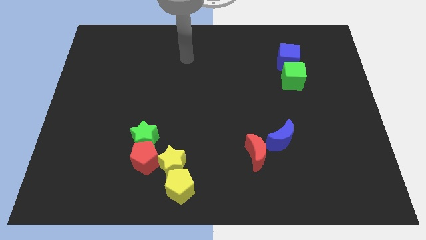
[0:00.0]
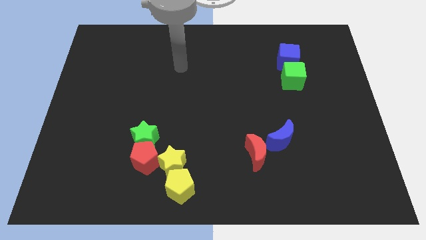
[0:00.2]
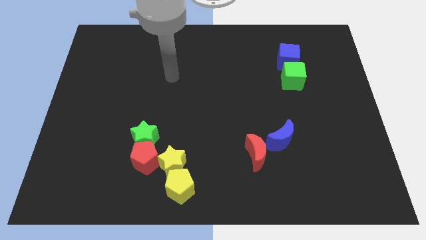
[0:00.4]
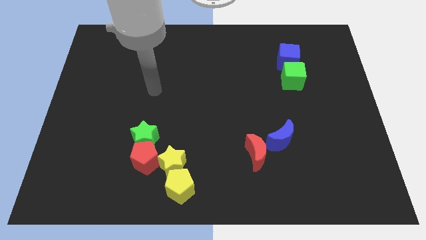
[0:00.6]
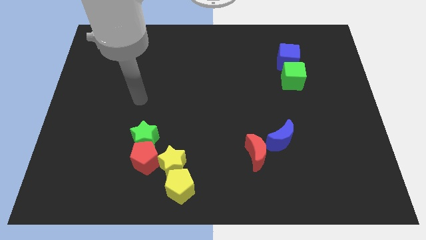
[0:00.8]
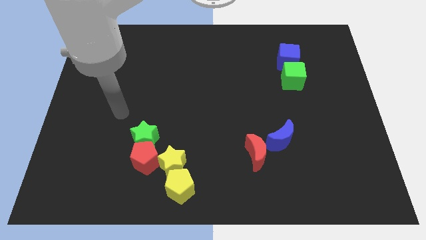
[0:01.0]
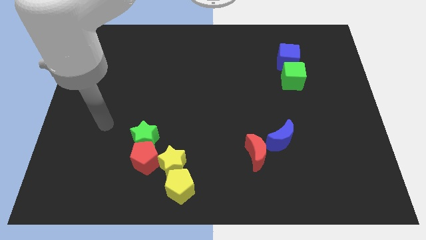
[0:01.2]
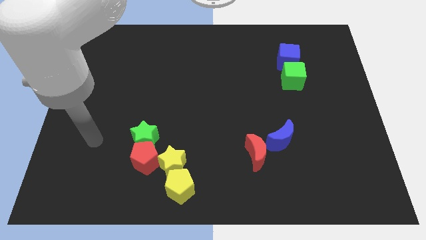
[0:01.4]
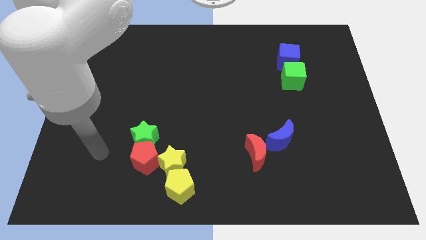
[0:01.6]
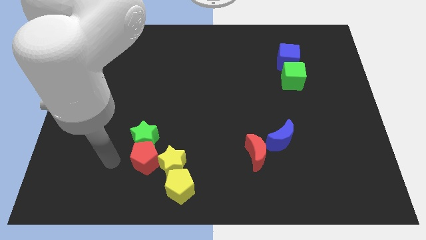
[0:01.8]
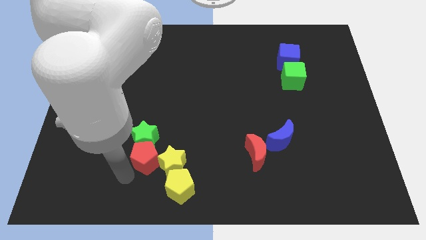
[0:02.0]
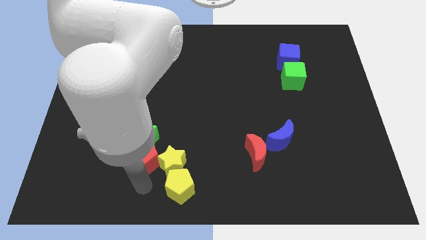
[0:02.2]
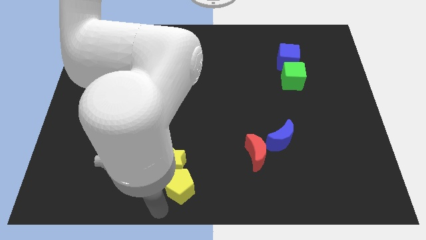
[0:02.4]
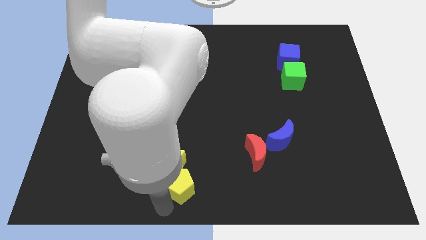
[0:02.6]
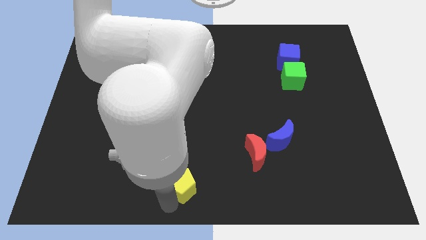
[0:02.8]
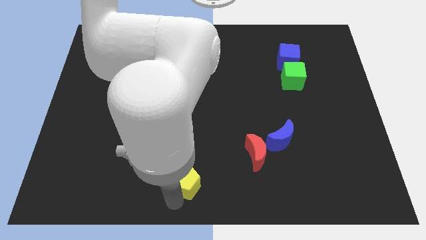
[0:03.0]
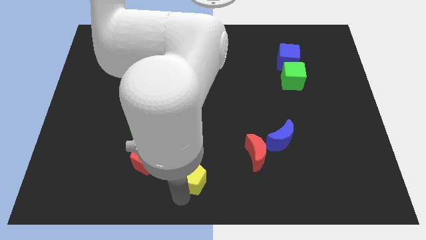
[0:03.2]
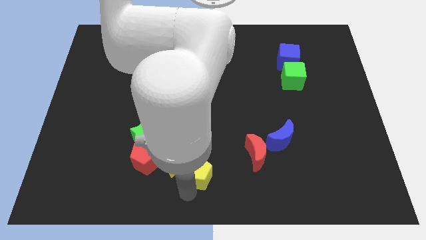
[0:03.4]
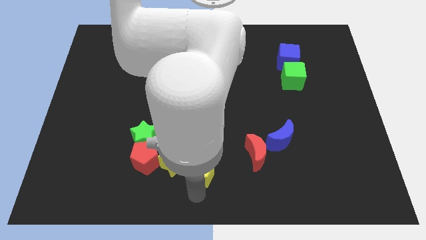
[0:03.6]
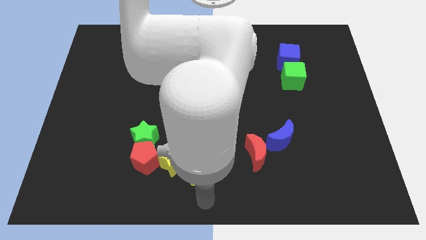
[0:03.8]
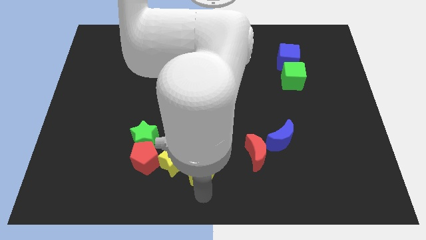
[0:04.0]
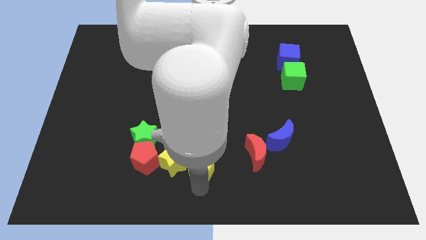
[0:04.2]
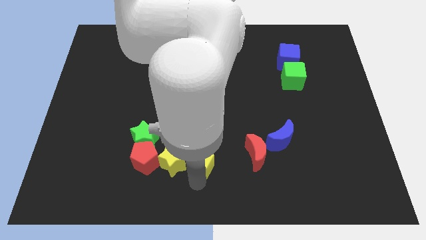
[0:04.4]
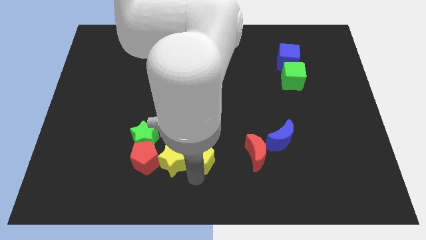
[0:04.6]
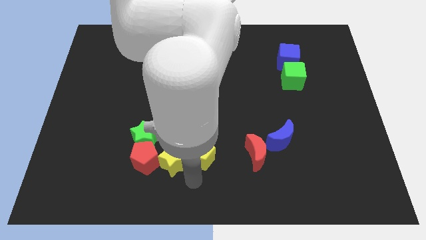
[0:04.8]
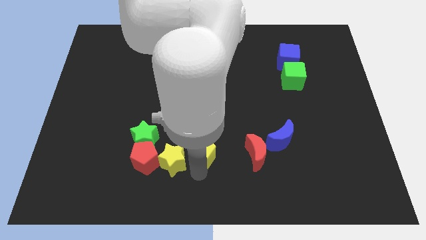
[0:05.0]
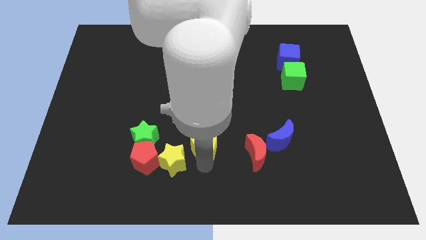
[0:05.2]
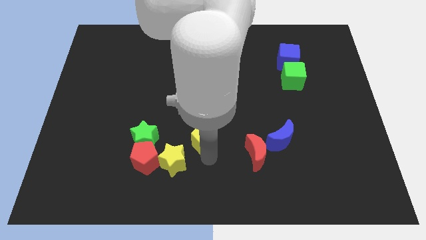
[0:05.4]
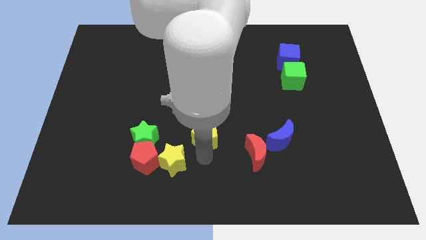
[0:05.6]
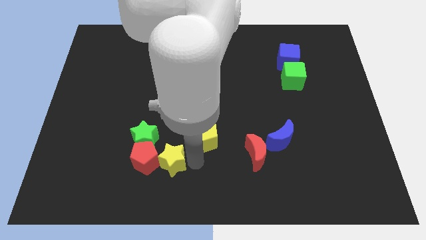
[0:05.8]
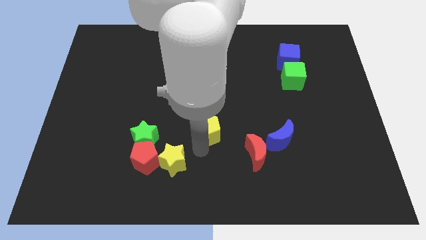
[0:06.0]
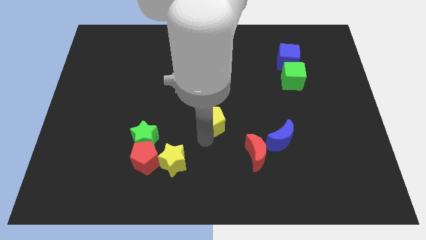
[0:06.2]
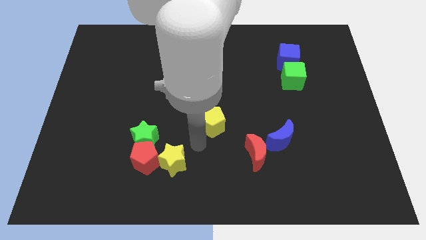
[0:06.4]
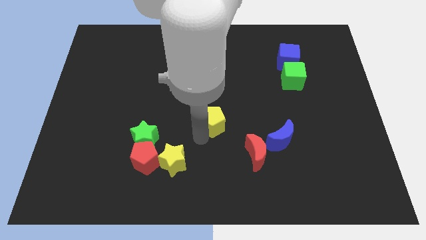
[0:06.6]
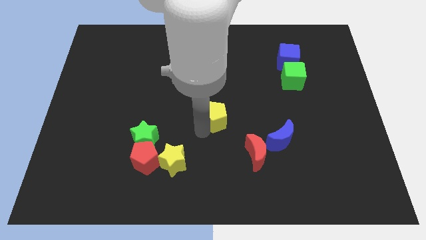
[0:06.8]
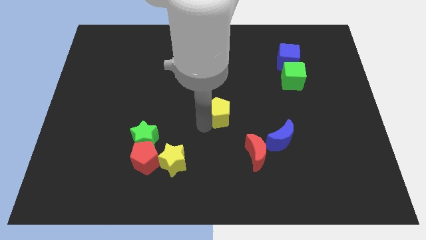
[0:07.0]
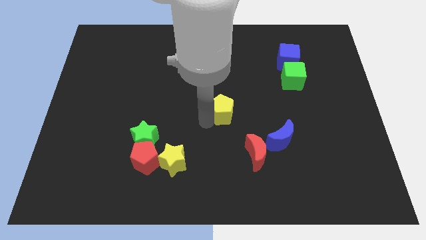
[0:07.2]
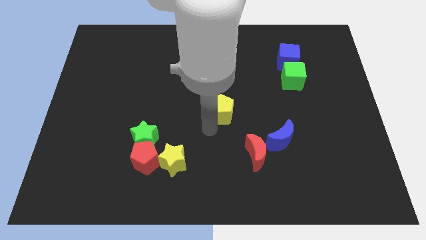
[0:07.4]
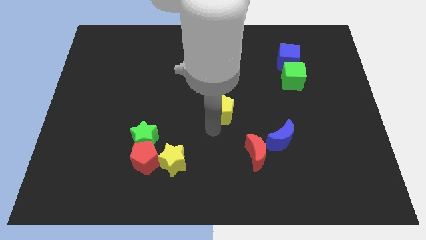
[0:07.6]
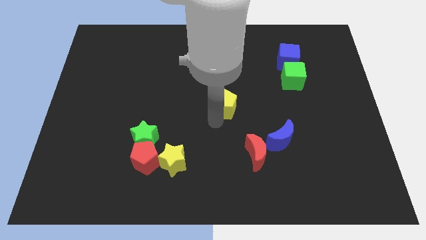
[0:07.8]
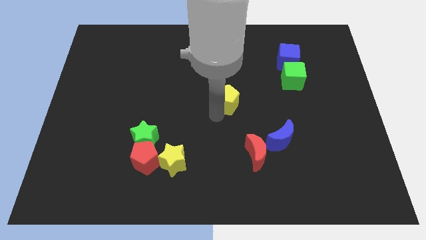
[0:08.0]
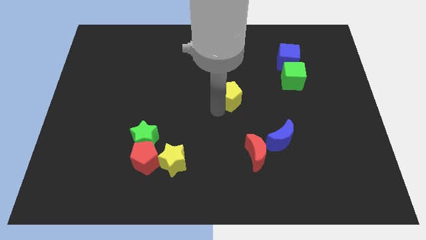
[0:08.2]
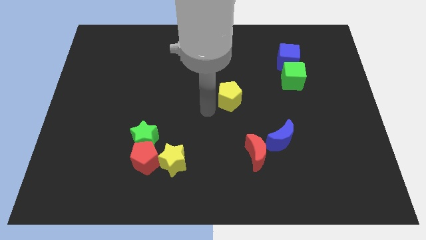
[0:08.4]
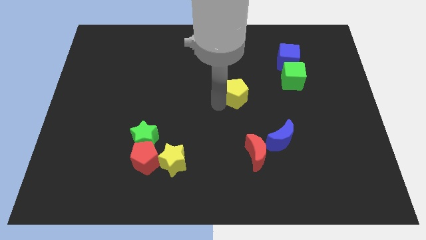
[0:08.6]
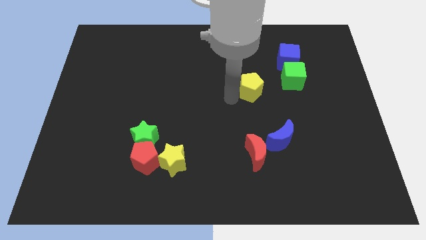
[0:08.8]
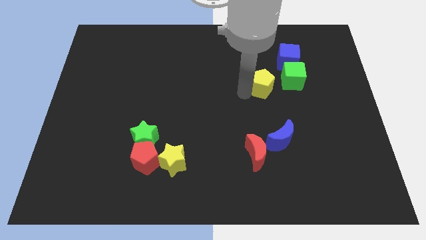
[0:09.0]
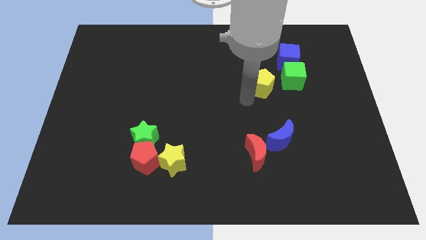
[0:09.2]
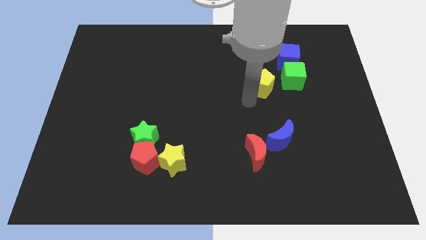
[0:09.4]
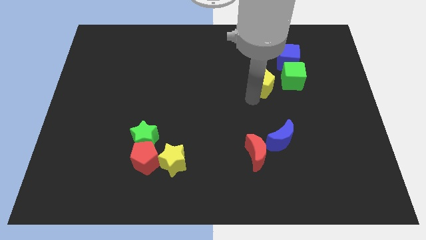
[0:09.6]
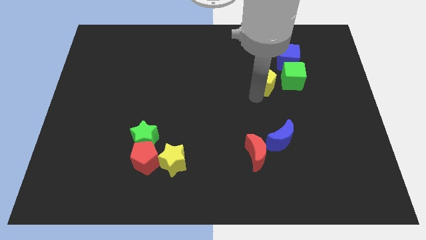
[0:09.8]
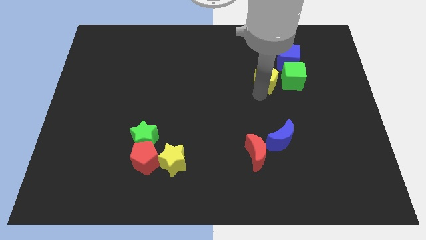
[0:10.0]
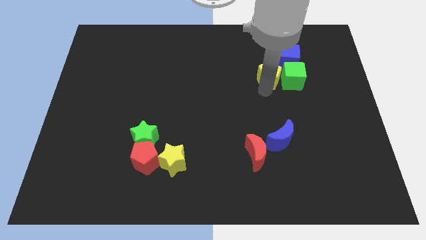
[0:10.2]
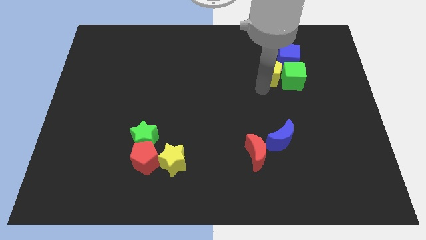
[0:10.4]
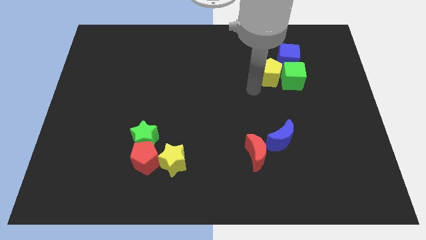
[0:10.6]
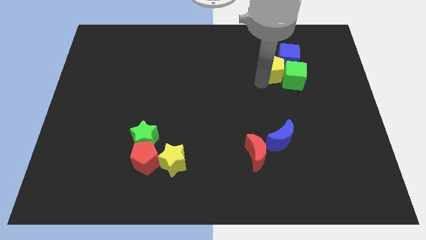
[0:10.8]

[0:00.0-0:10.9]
put the yellow pentagon next to the blue cube

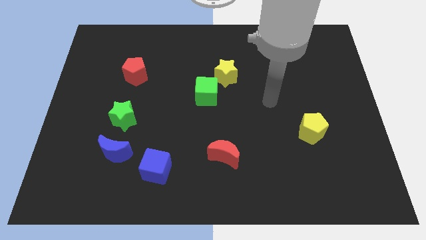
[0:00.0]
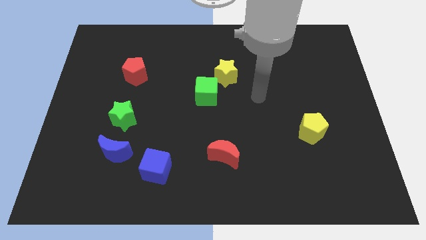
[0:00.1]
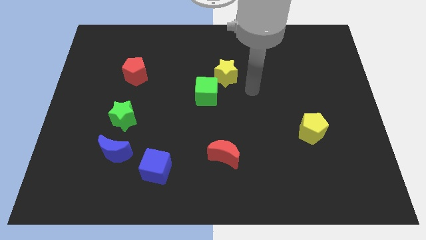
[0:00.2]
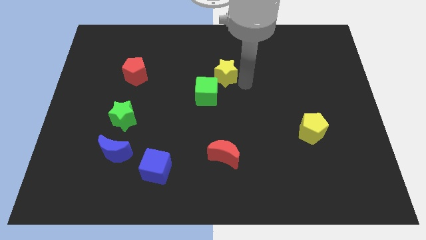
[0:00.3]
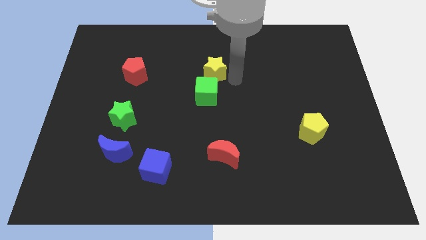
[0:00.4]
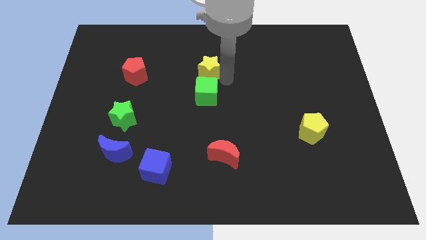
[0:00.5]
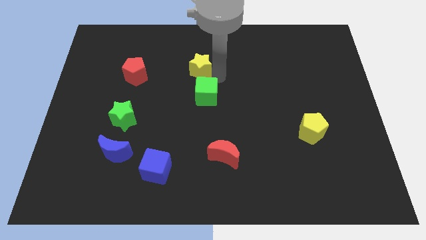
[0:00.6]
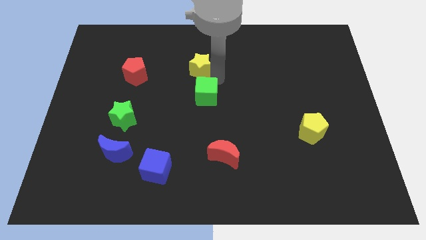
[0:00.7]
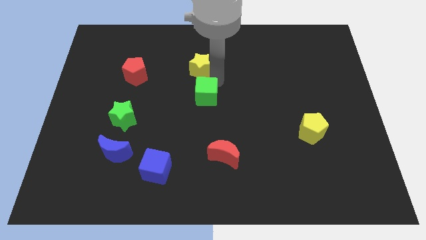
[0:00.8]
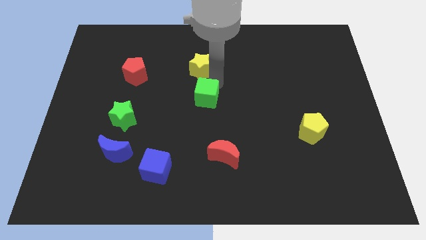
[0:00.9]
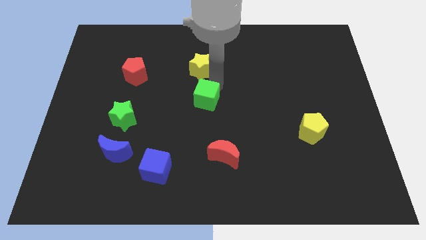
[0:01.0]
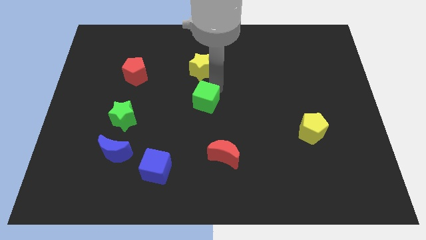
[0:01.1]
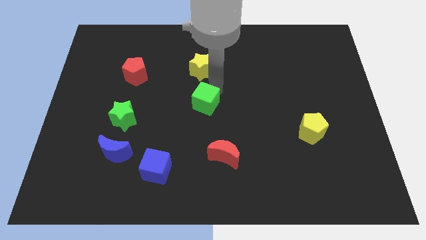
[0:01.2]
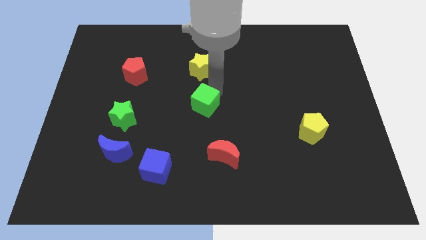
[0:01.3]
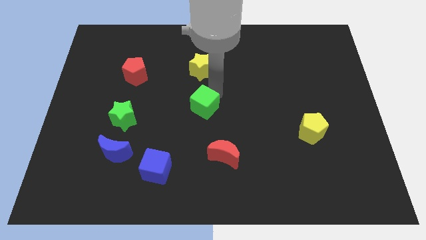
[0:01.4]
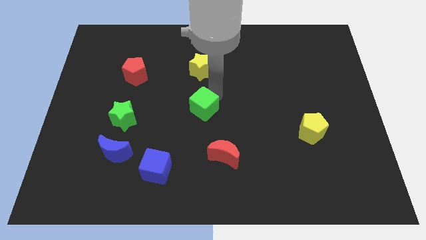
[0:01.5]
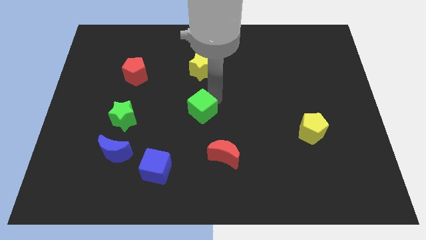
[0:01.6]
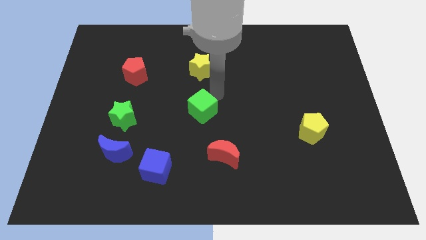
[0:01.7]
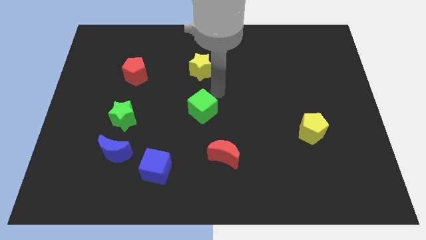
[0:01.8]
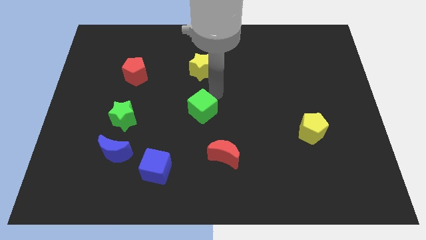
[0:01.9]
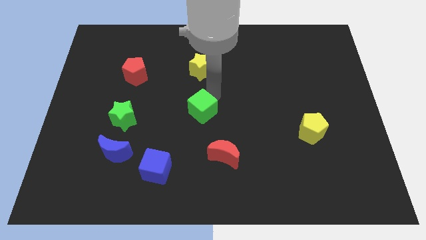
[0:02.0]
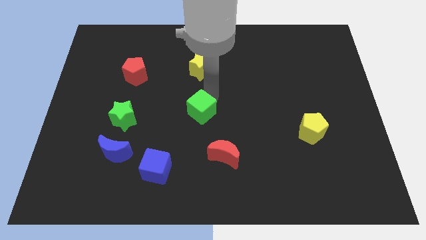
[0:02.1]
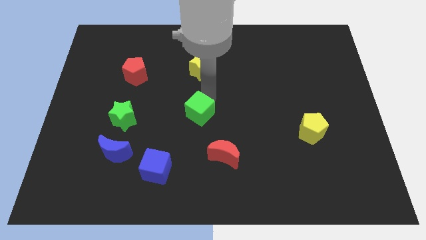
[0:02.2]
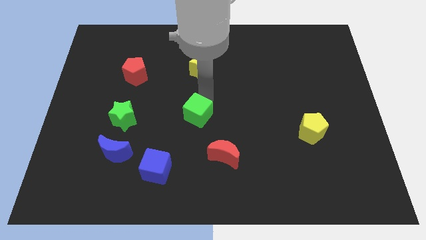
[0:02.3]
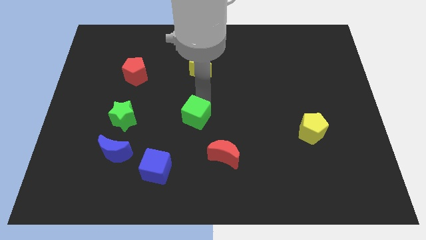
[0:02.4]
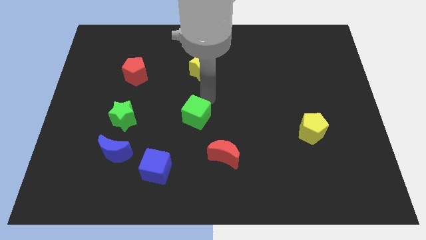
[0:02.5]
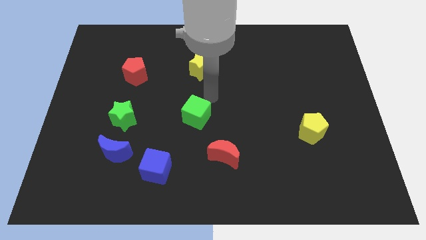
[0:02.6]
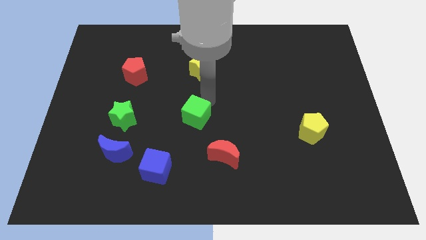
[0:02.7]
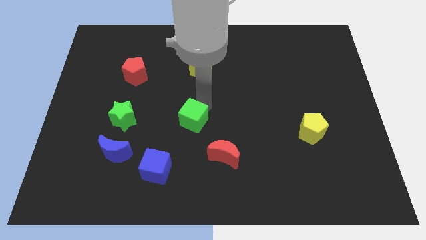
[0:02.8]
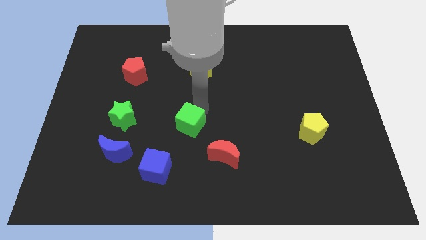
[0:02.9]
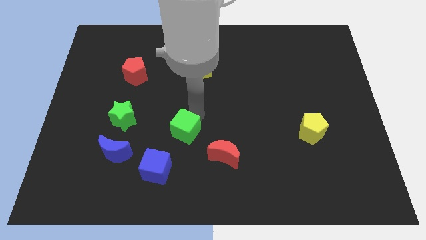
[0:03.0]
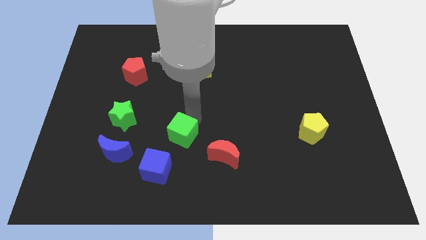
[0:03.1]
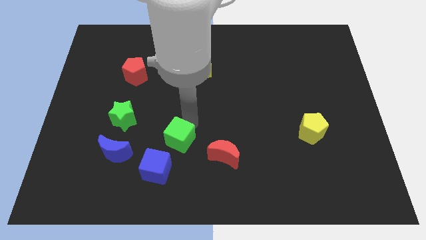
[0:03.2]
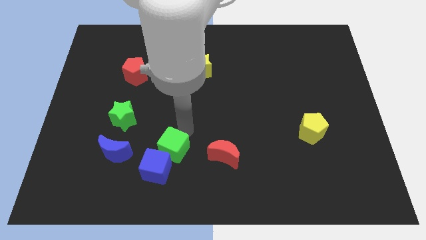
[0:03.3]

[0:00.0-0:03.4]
push the green cube towards the blue cube
